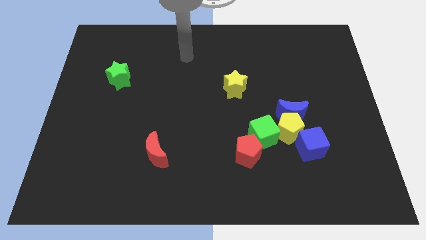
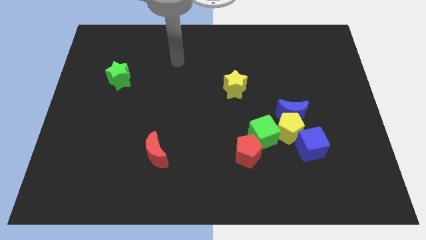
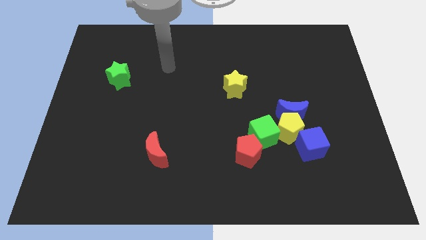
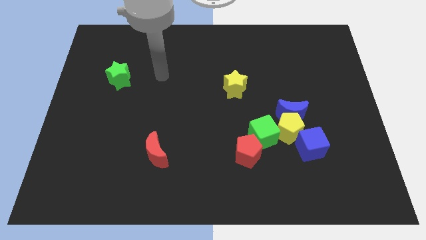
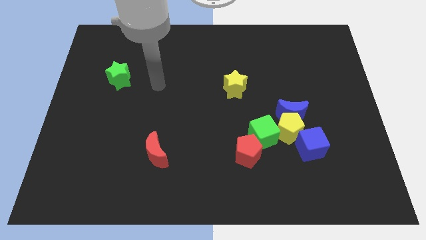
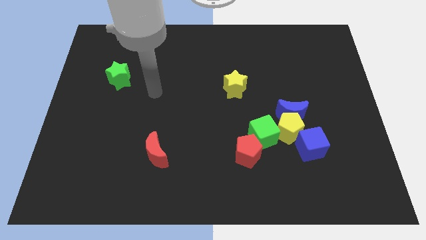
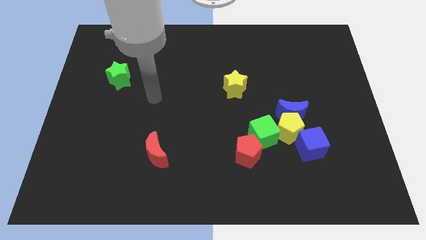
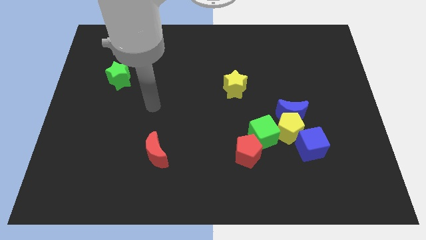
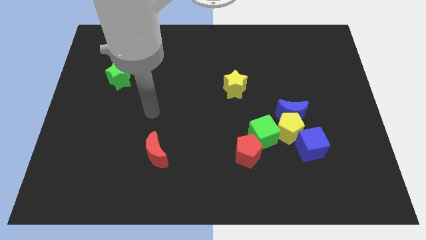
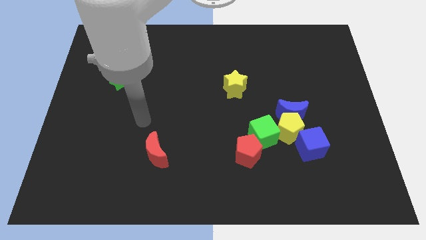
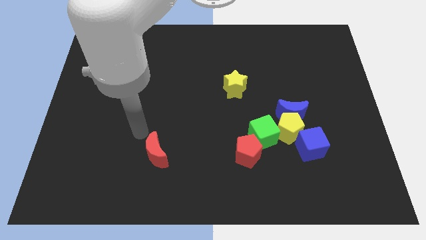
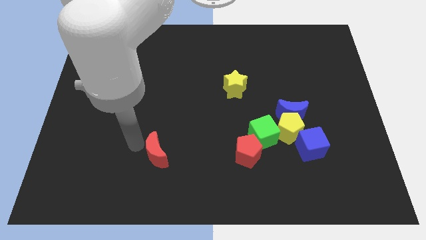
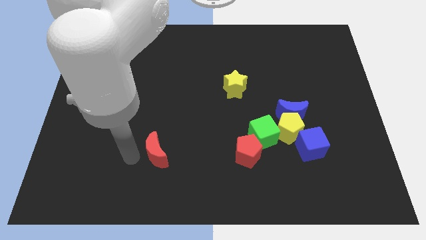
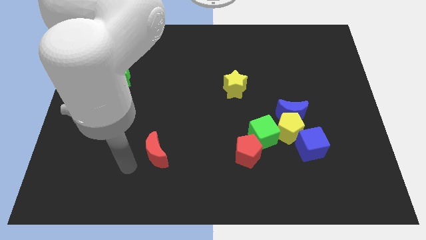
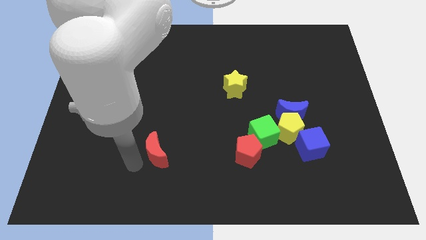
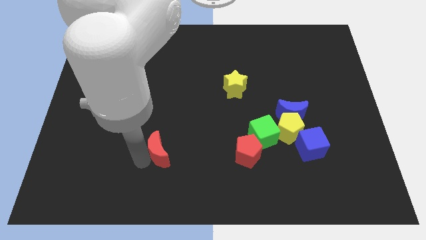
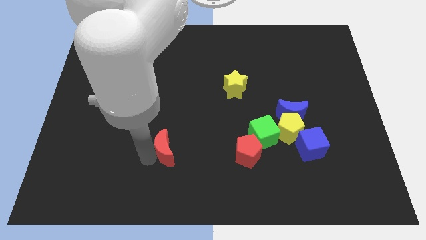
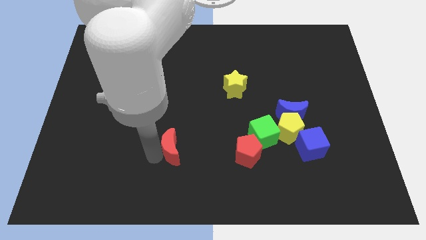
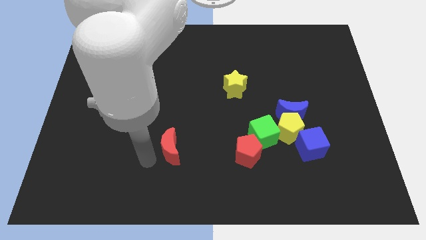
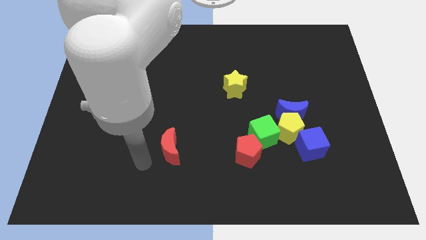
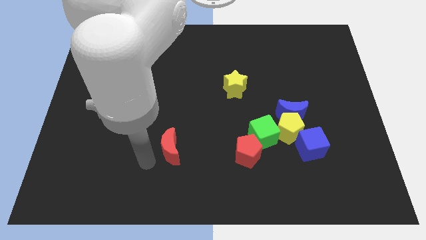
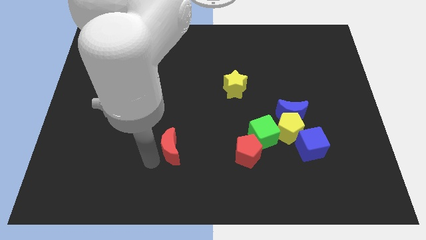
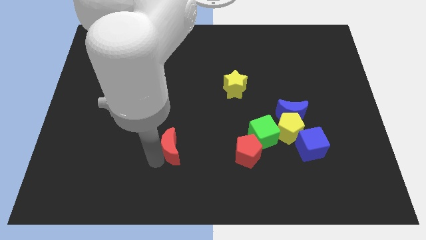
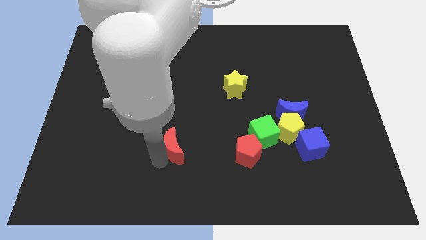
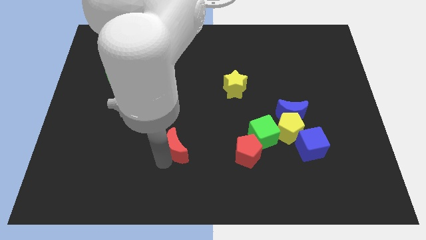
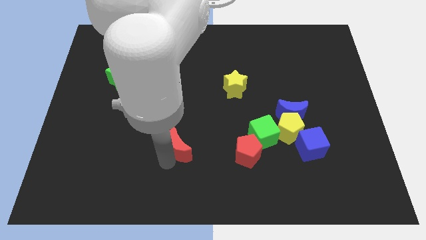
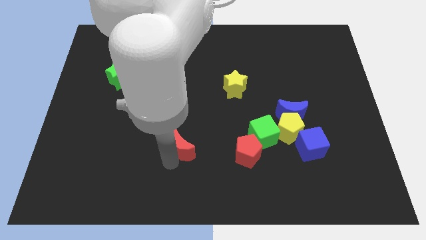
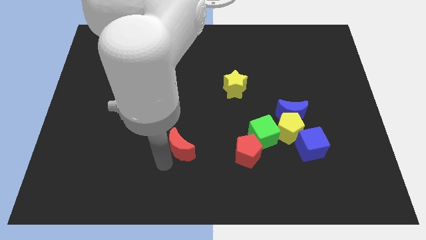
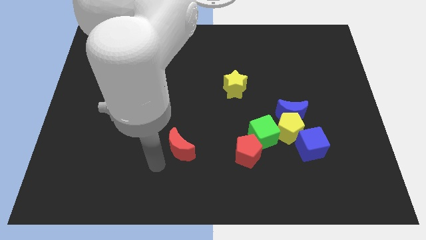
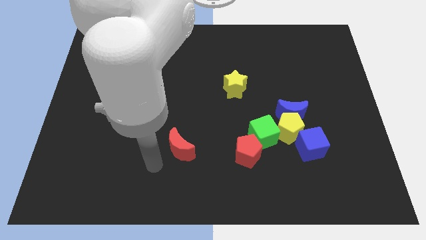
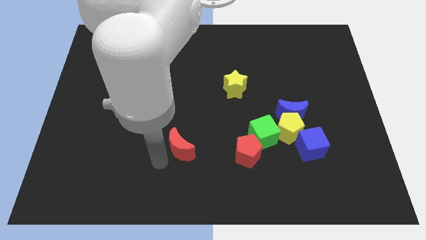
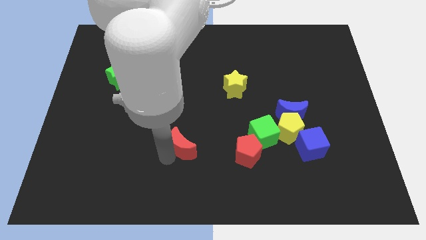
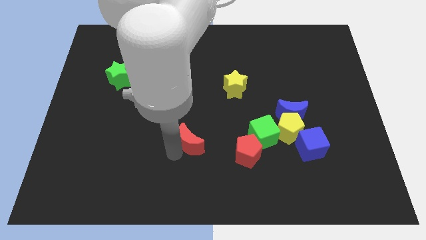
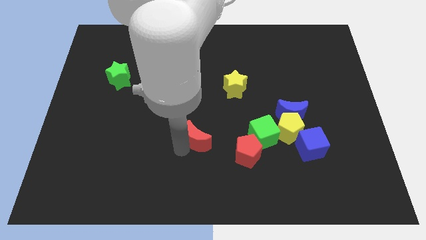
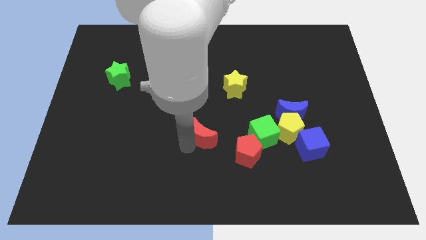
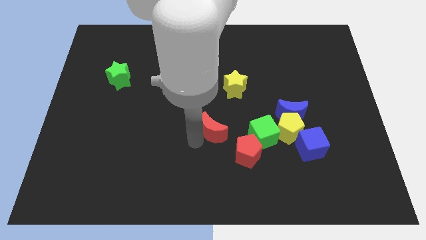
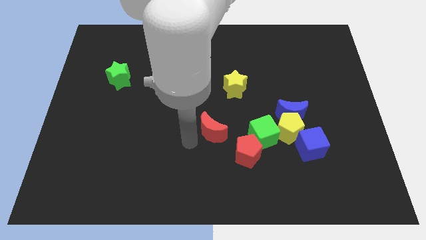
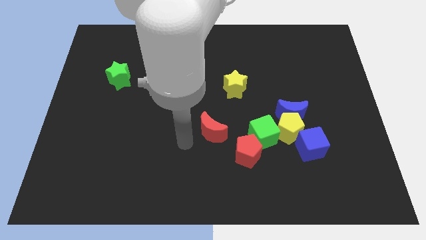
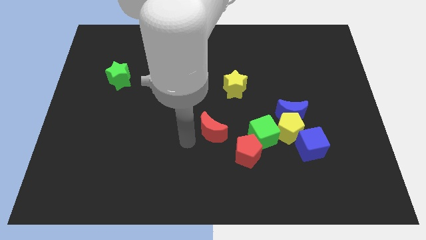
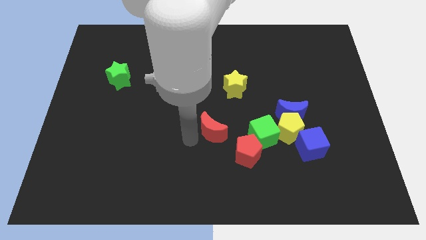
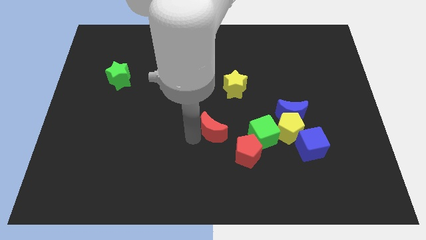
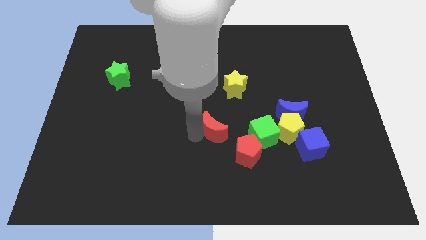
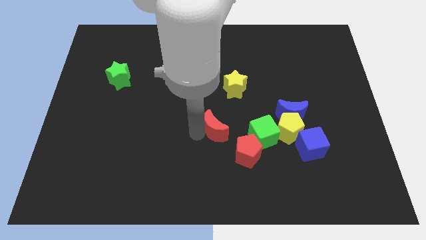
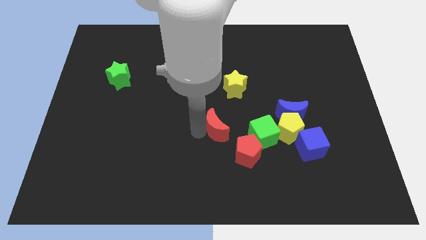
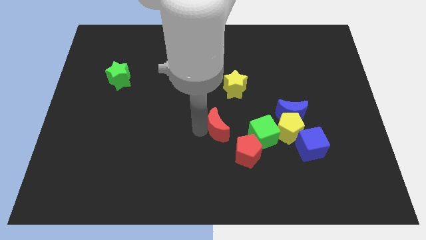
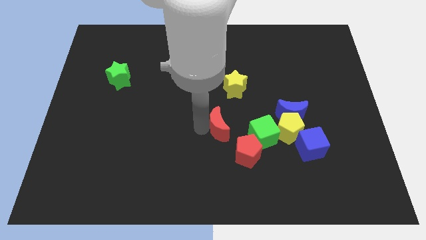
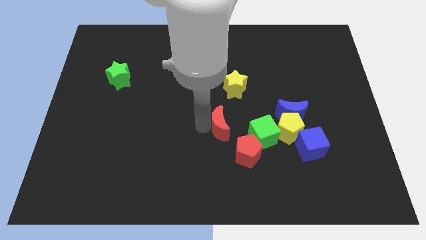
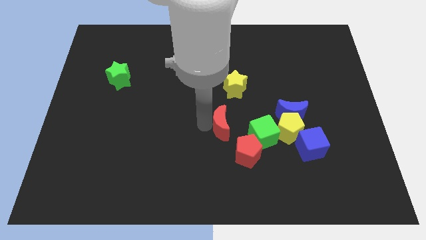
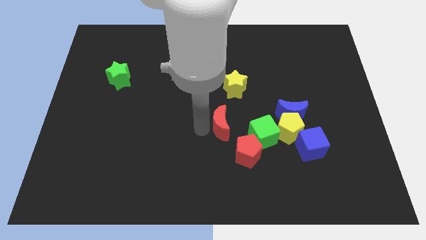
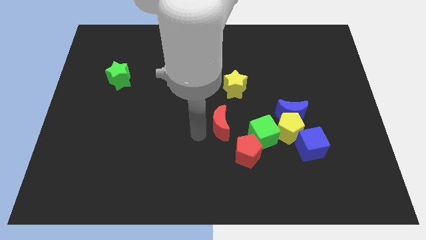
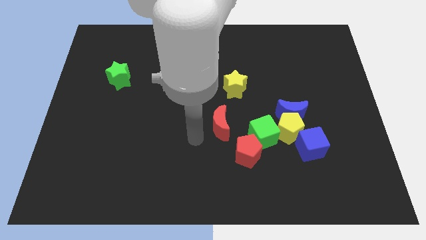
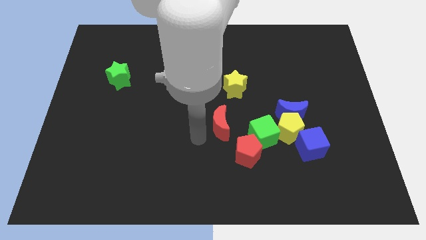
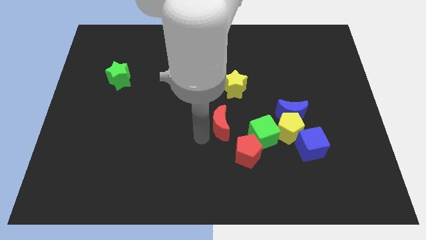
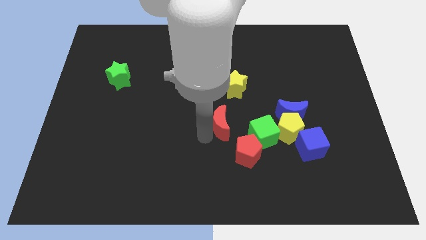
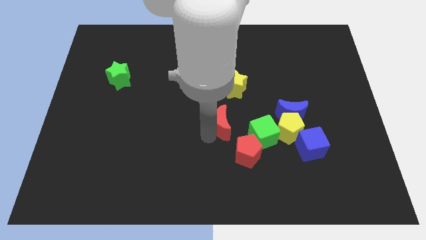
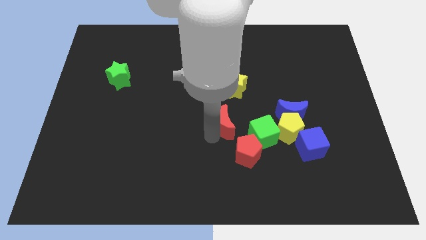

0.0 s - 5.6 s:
push the red moon above the red pentagon

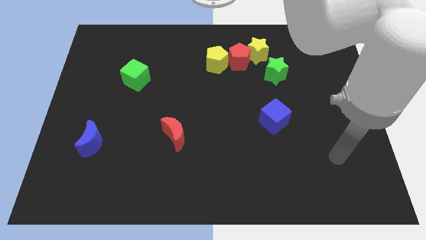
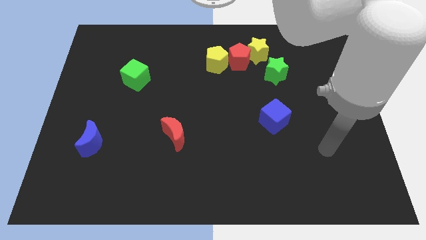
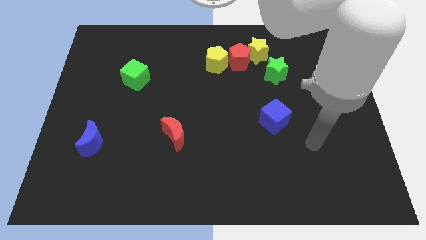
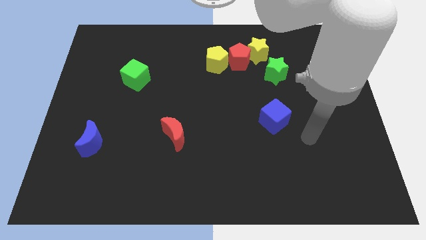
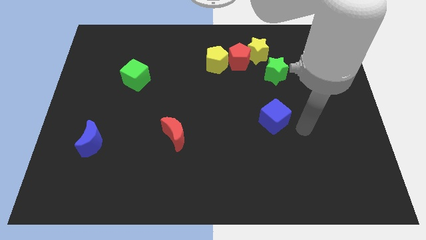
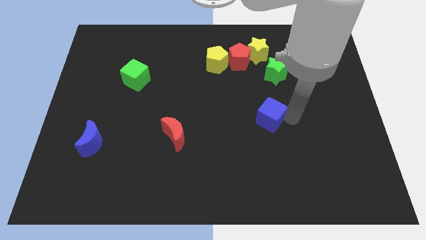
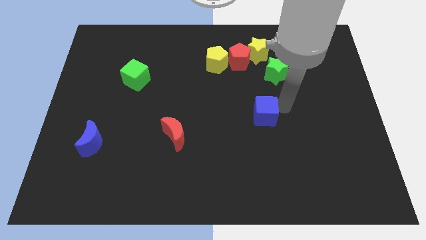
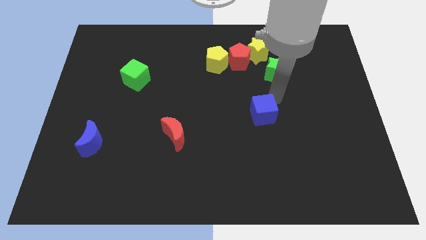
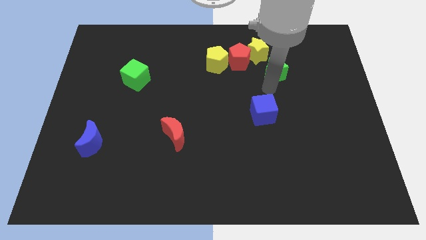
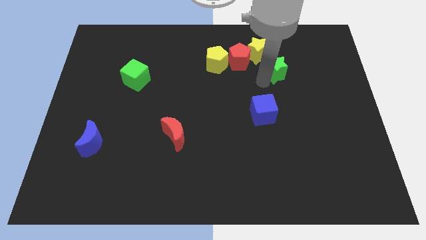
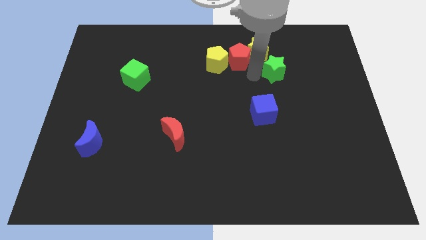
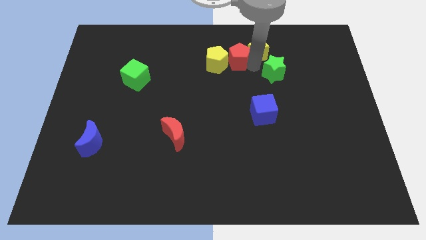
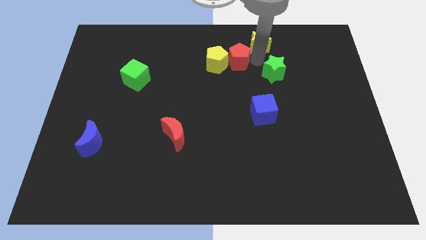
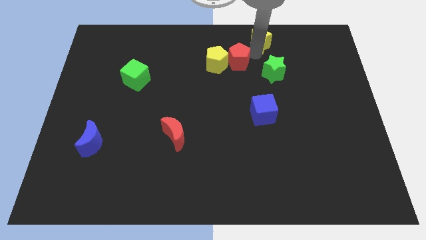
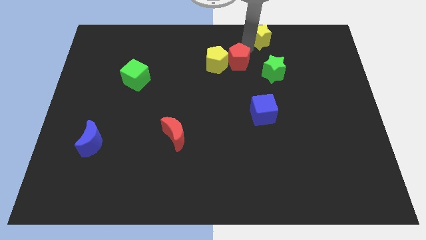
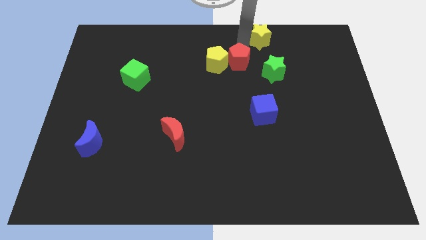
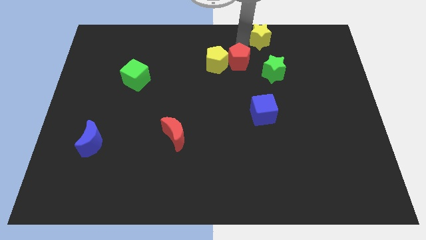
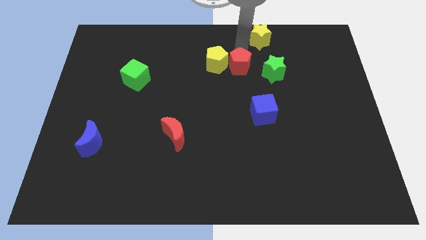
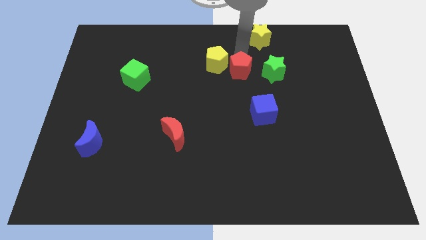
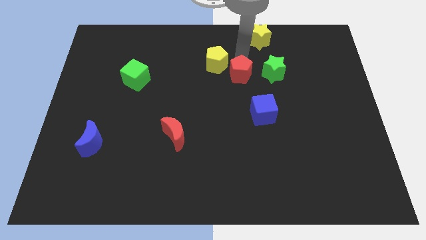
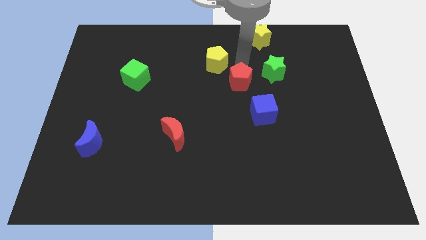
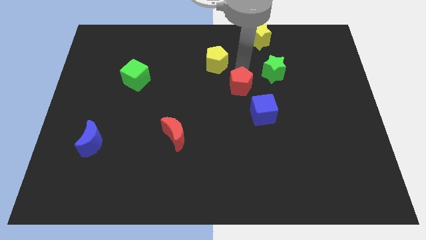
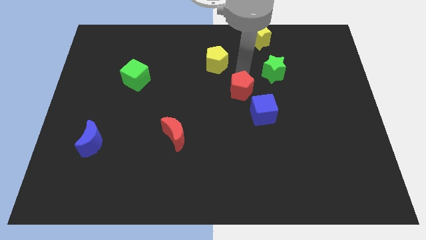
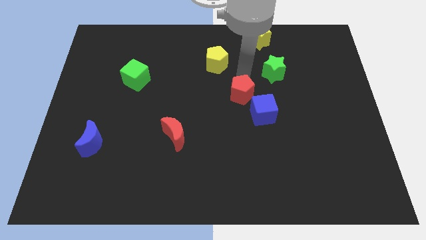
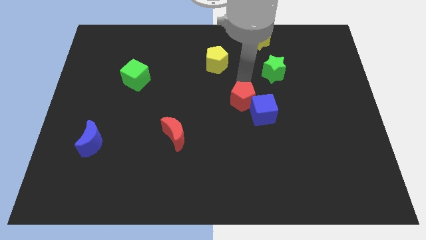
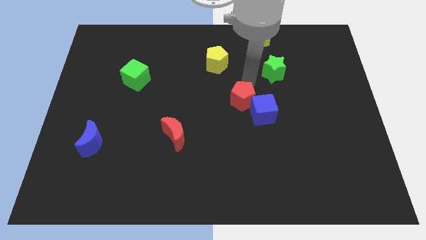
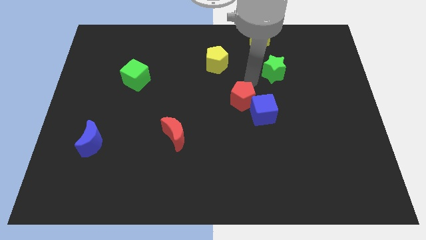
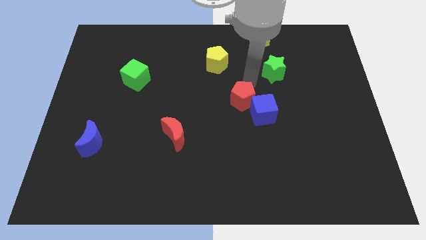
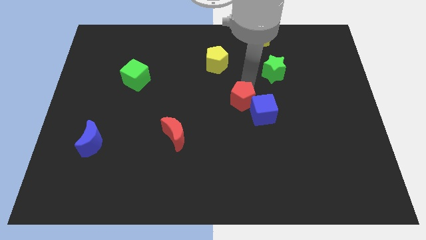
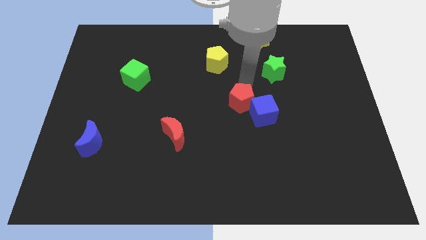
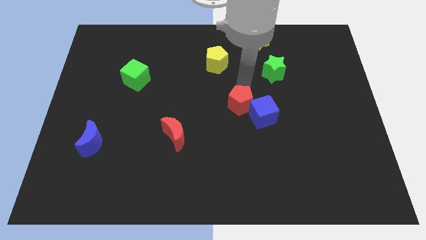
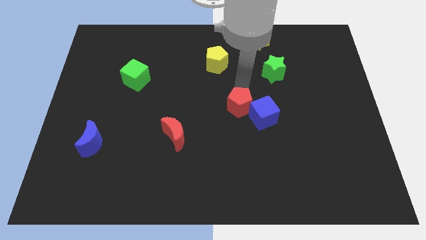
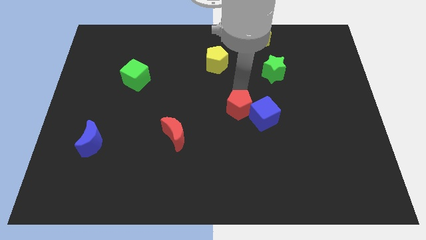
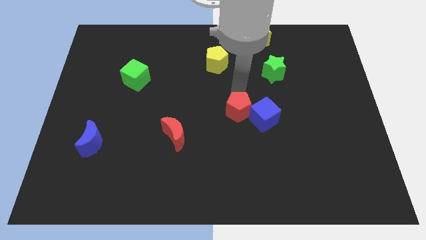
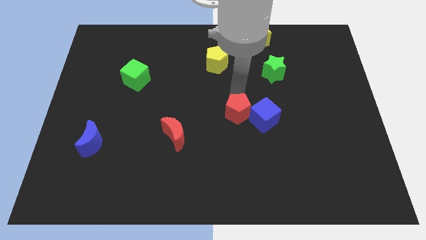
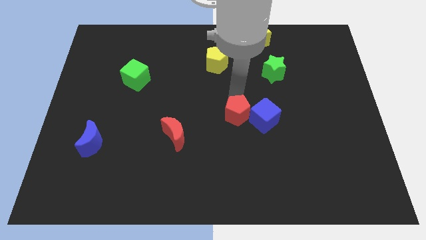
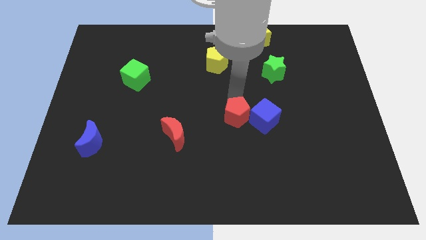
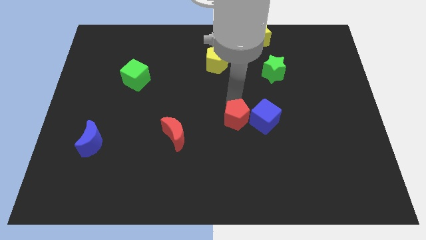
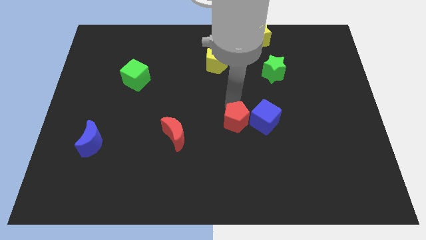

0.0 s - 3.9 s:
put the red pentagon just right of the red moon
